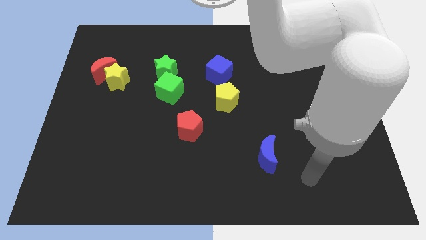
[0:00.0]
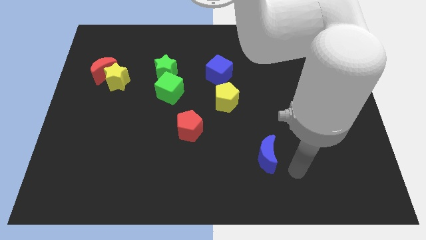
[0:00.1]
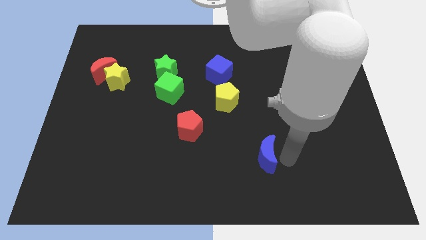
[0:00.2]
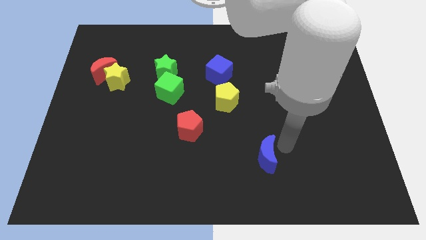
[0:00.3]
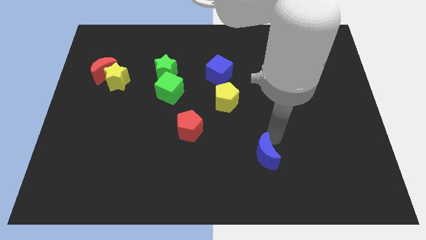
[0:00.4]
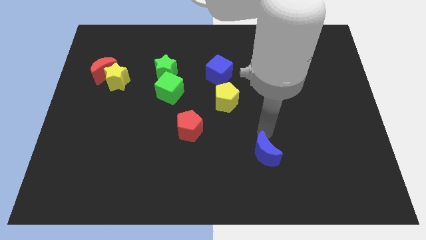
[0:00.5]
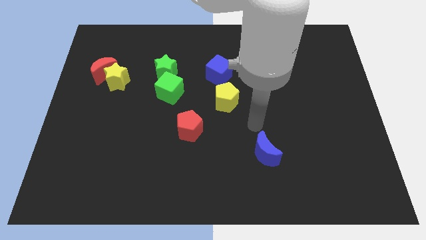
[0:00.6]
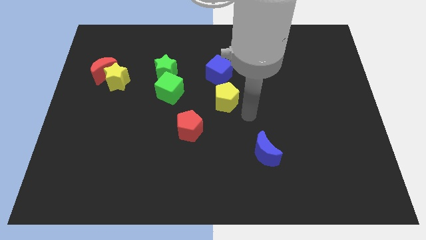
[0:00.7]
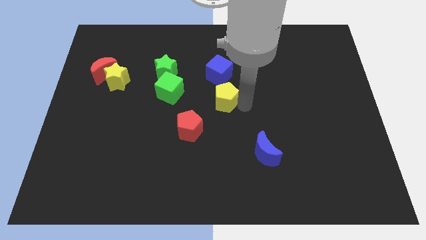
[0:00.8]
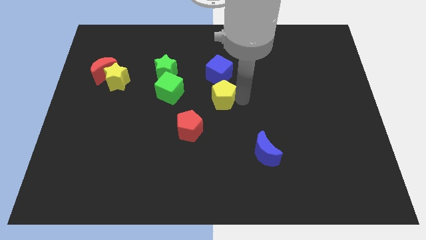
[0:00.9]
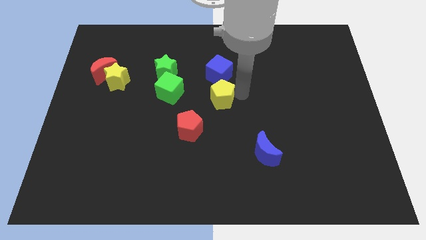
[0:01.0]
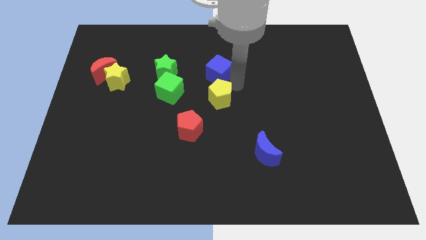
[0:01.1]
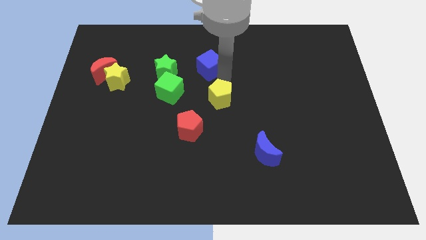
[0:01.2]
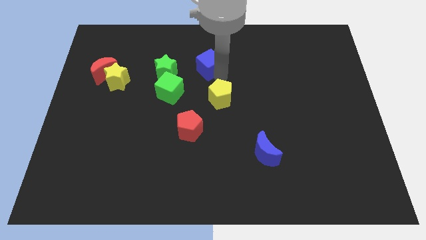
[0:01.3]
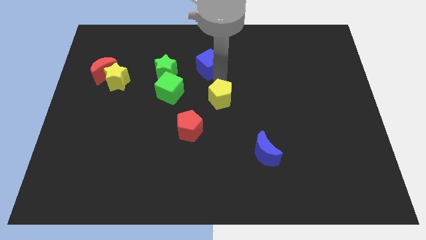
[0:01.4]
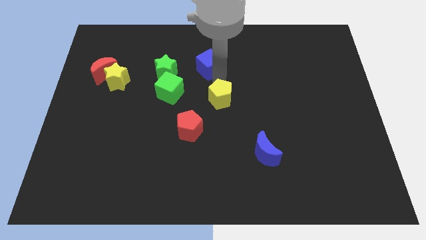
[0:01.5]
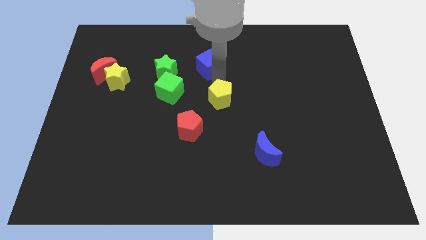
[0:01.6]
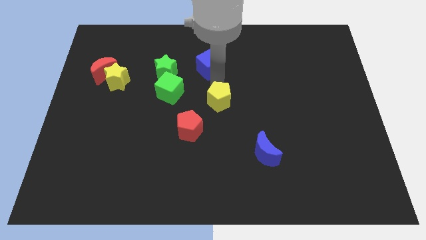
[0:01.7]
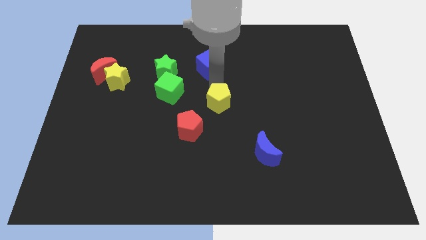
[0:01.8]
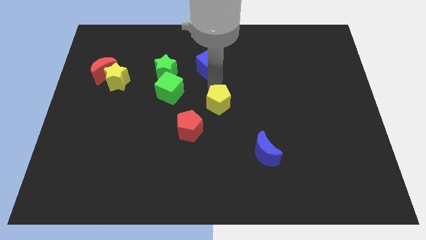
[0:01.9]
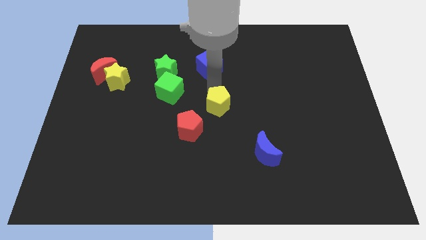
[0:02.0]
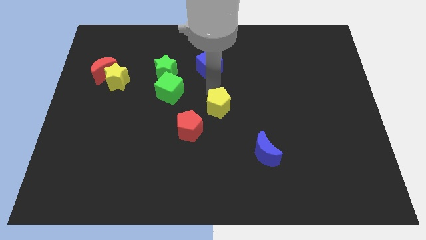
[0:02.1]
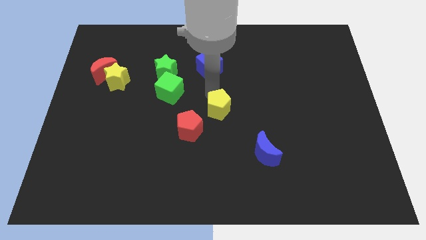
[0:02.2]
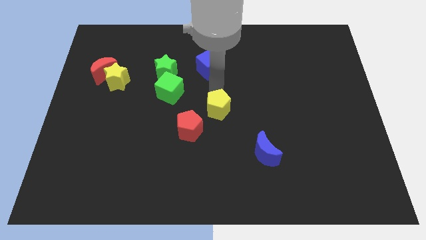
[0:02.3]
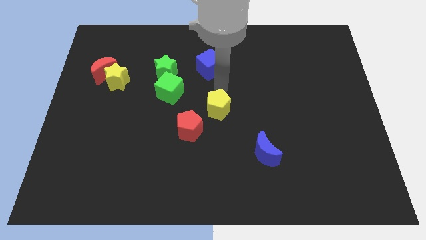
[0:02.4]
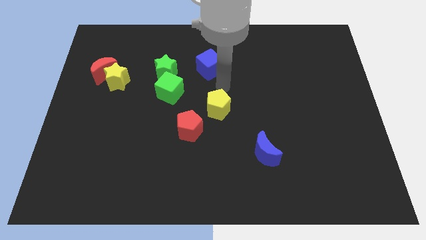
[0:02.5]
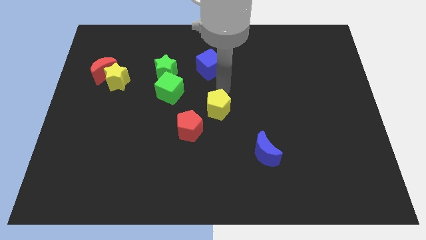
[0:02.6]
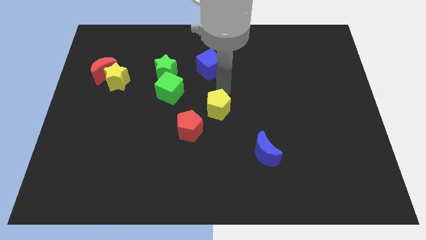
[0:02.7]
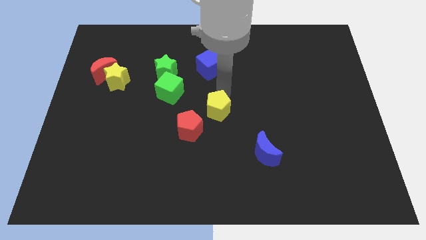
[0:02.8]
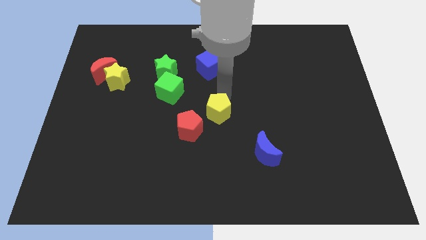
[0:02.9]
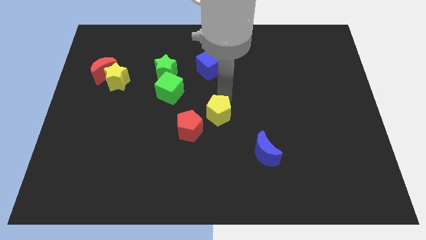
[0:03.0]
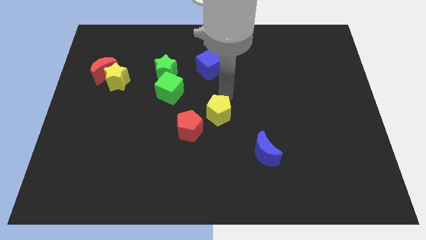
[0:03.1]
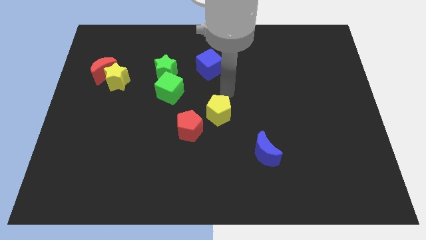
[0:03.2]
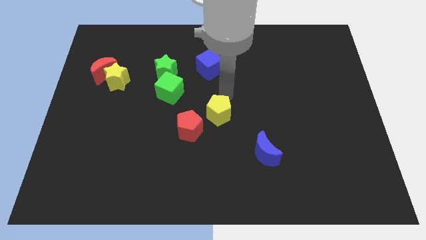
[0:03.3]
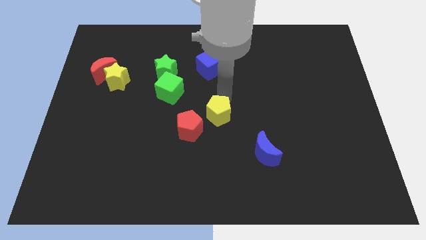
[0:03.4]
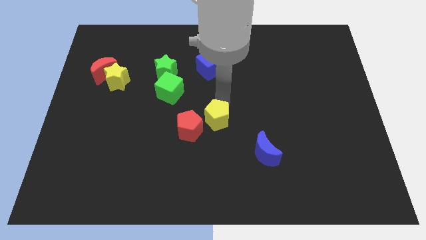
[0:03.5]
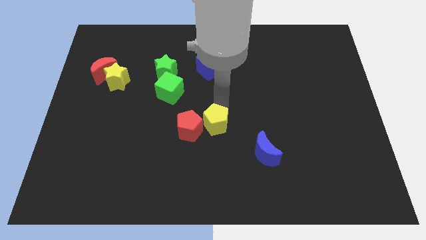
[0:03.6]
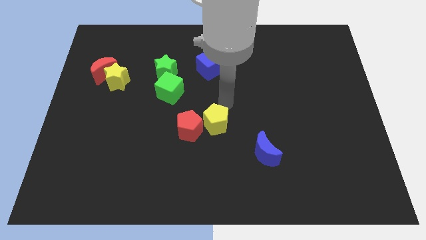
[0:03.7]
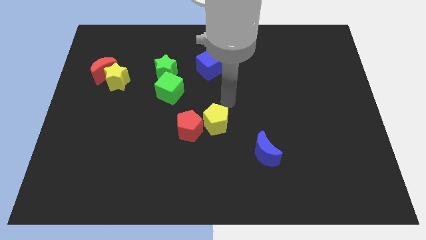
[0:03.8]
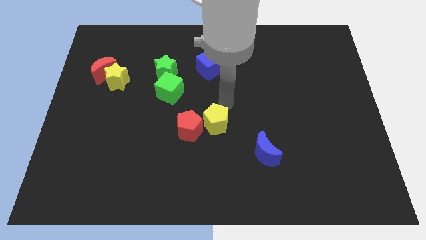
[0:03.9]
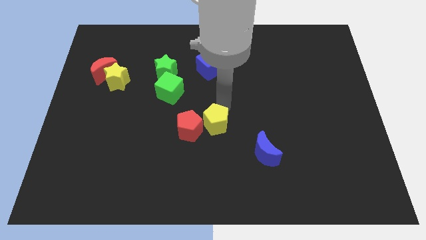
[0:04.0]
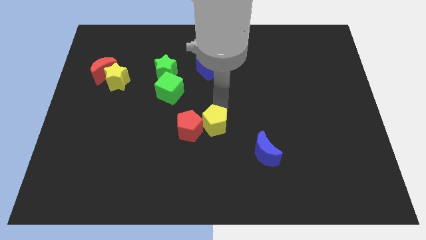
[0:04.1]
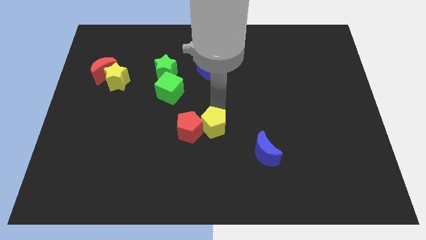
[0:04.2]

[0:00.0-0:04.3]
slide the yellow pentagon diagonally down and to the left a little

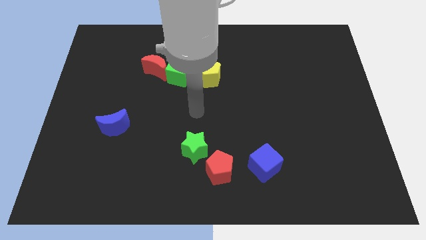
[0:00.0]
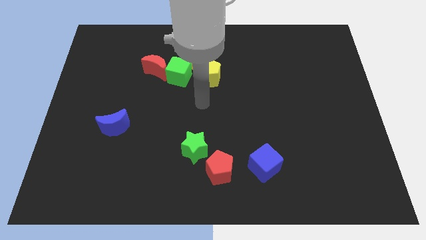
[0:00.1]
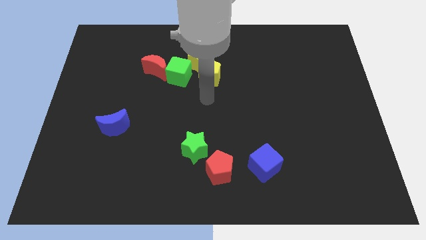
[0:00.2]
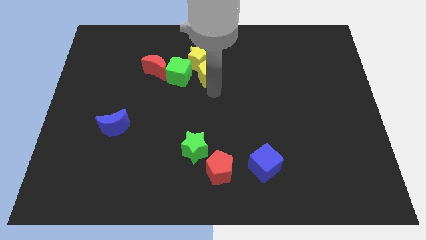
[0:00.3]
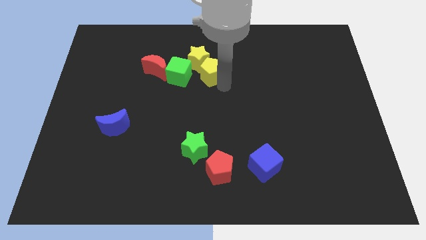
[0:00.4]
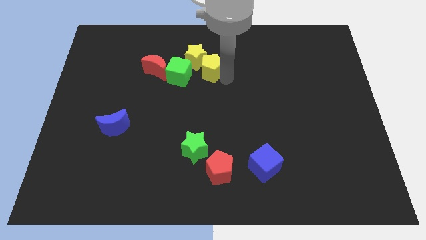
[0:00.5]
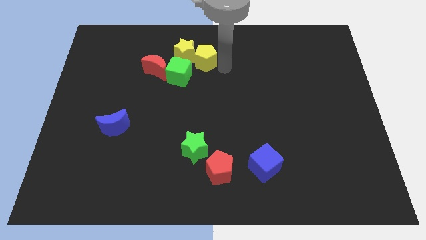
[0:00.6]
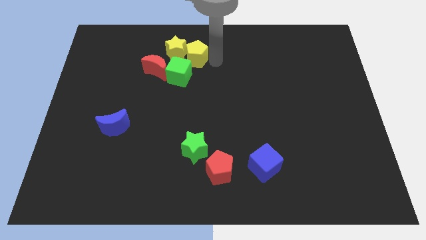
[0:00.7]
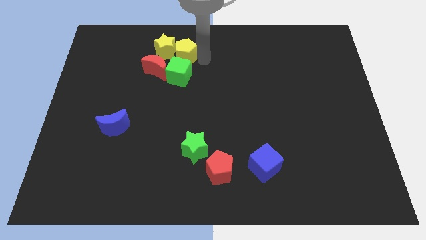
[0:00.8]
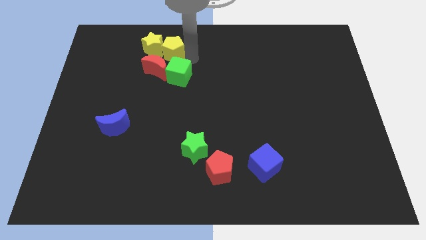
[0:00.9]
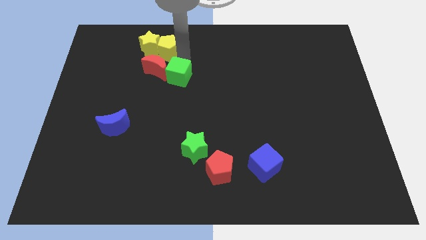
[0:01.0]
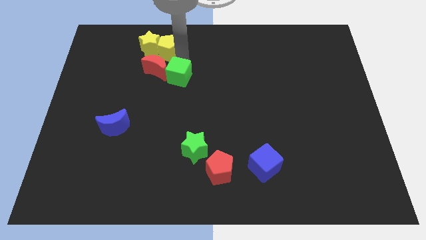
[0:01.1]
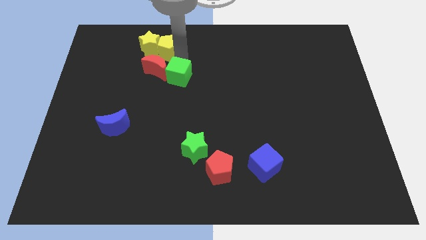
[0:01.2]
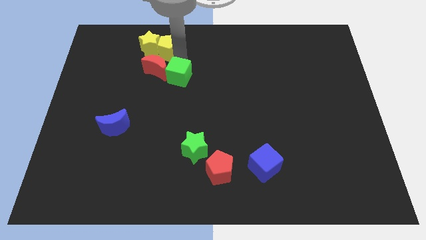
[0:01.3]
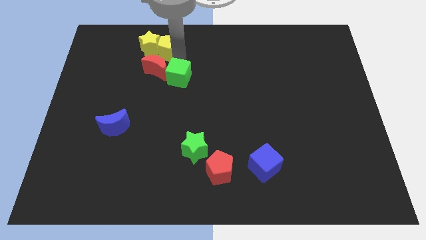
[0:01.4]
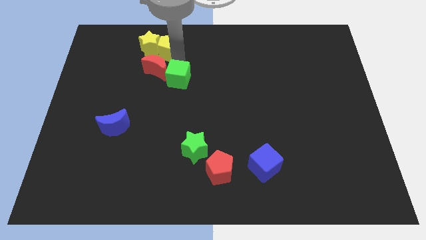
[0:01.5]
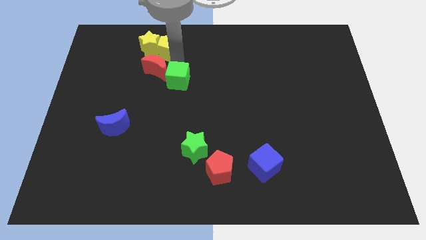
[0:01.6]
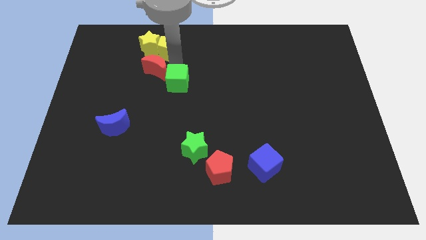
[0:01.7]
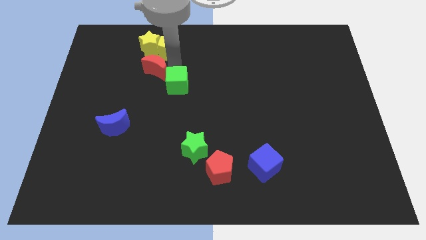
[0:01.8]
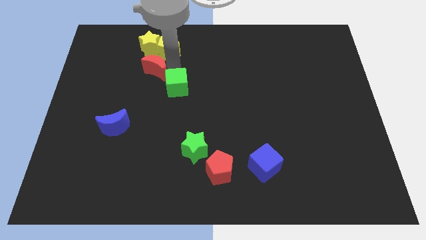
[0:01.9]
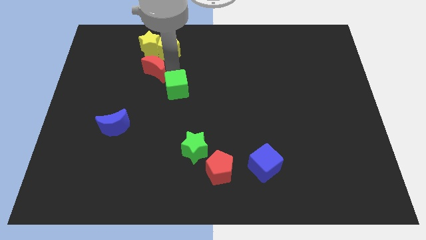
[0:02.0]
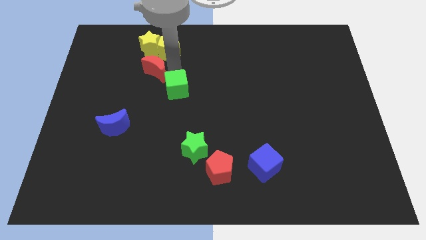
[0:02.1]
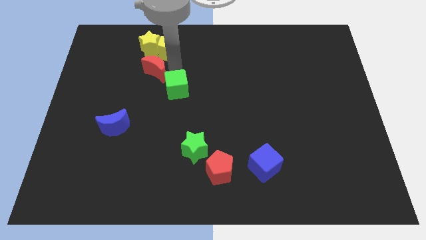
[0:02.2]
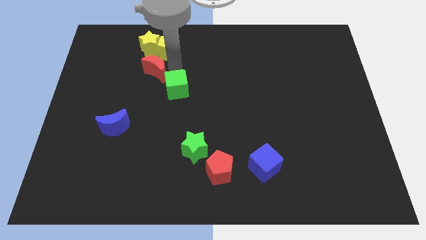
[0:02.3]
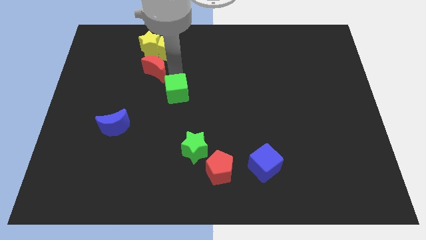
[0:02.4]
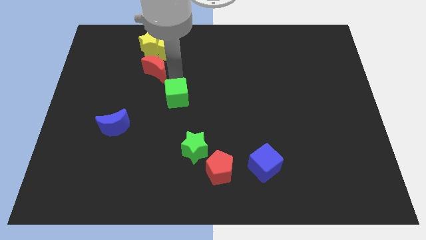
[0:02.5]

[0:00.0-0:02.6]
slide the green cube down slightly

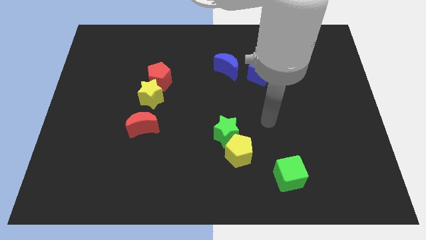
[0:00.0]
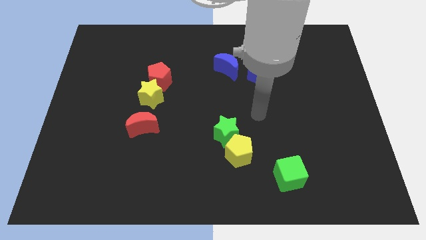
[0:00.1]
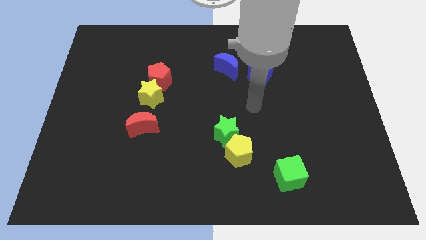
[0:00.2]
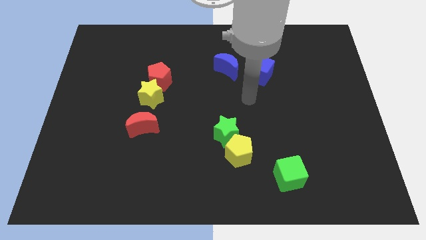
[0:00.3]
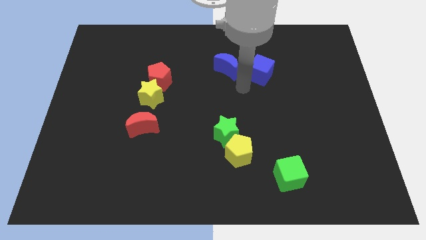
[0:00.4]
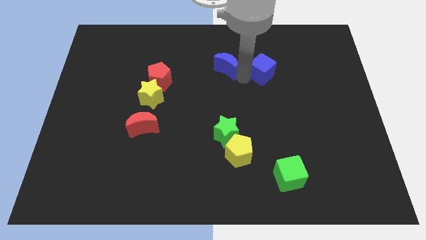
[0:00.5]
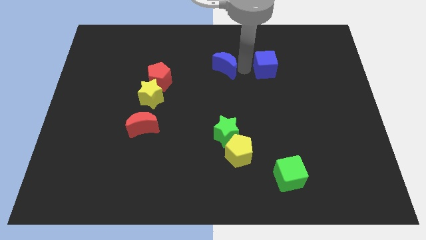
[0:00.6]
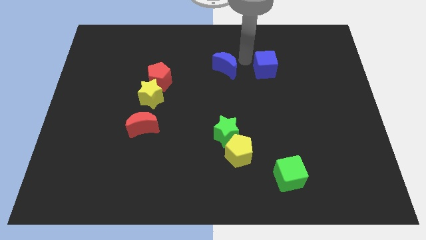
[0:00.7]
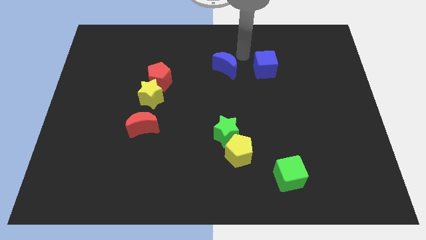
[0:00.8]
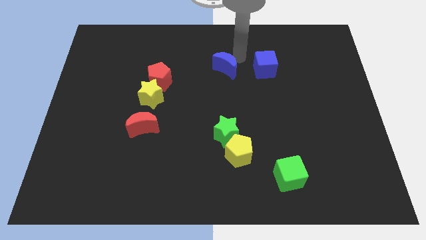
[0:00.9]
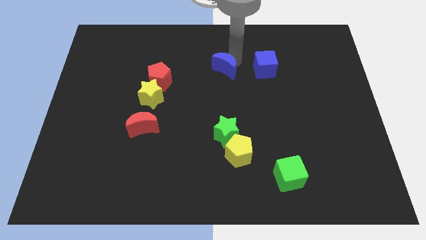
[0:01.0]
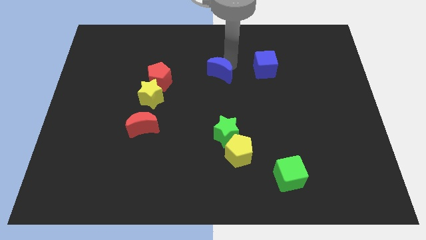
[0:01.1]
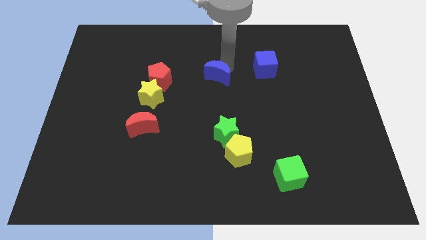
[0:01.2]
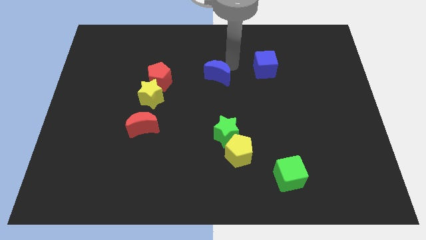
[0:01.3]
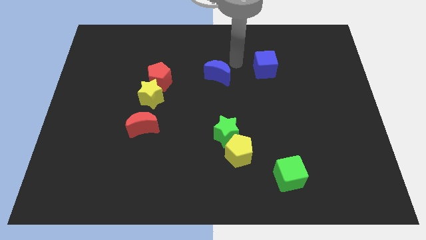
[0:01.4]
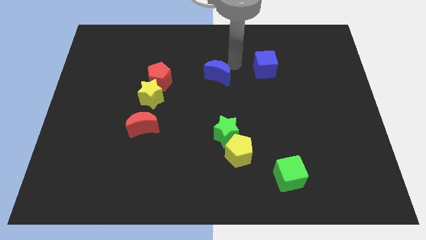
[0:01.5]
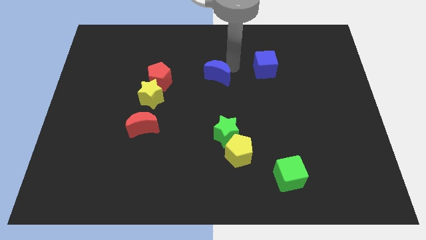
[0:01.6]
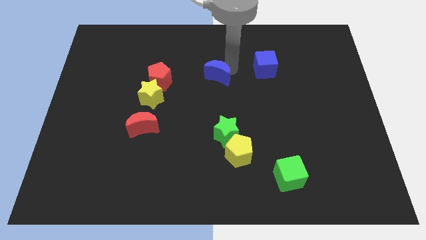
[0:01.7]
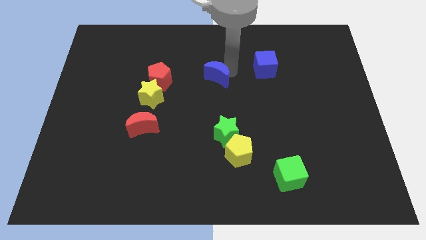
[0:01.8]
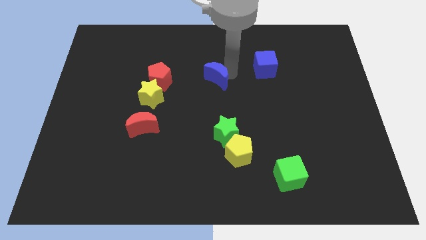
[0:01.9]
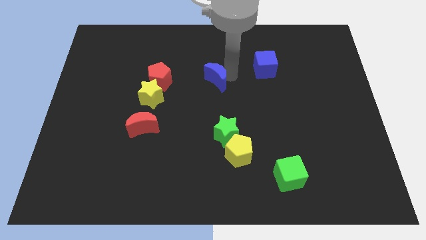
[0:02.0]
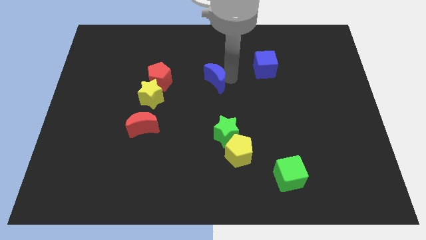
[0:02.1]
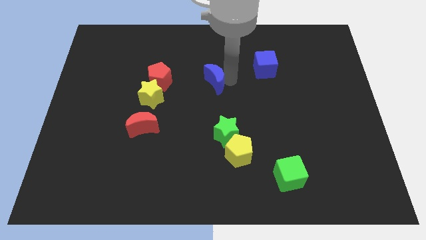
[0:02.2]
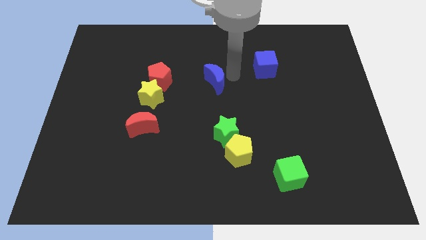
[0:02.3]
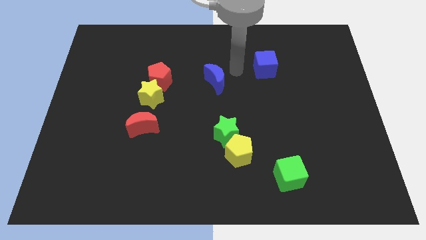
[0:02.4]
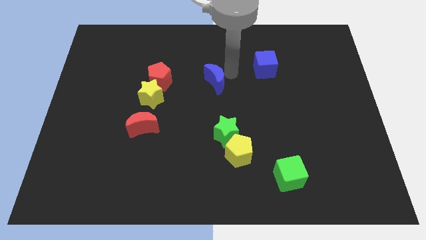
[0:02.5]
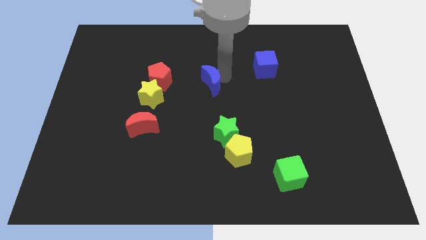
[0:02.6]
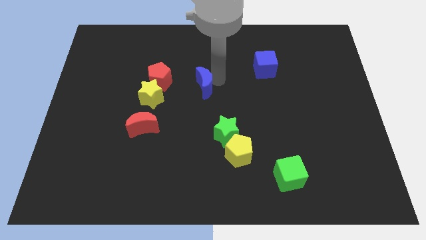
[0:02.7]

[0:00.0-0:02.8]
push the blue moon a little down and to the left
